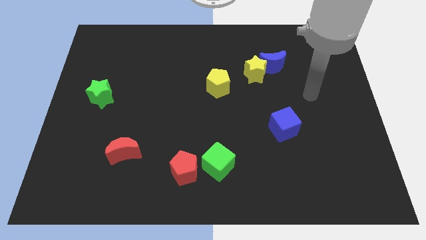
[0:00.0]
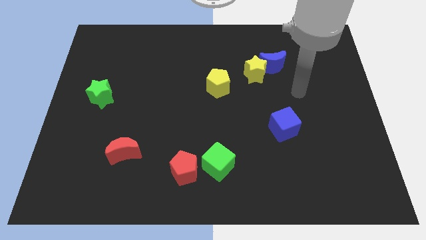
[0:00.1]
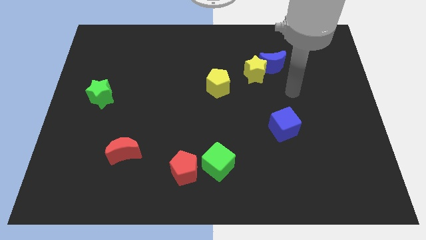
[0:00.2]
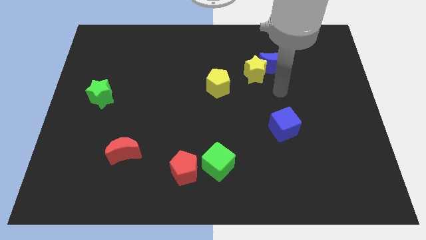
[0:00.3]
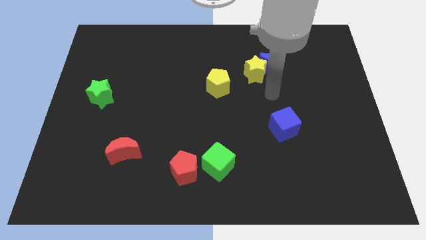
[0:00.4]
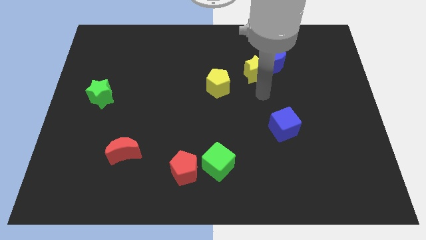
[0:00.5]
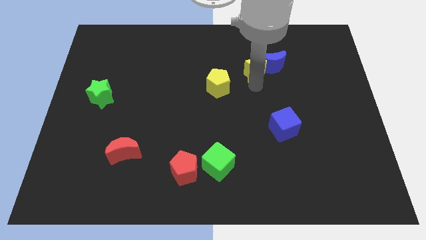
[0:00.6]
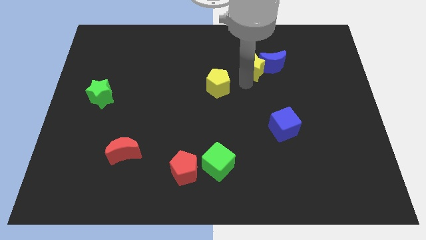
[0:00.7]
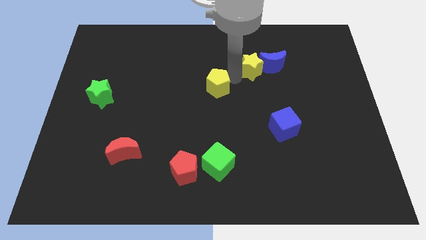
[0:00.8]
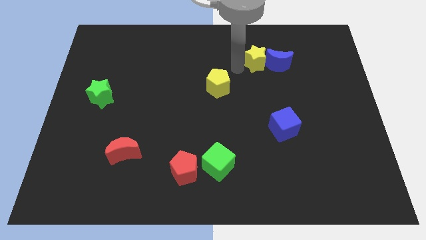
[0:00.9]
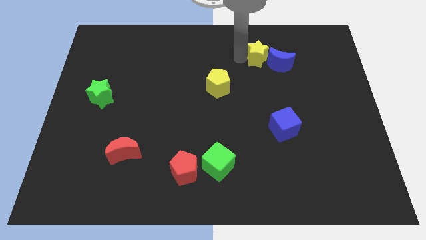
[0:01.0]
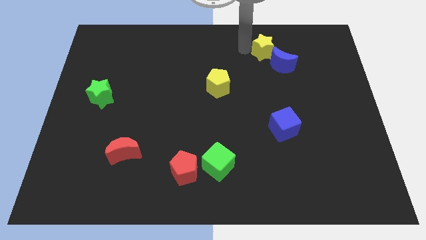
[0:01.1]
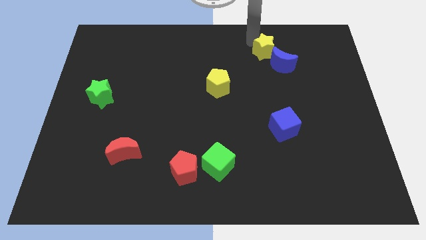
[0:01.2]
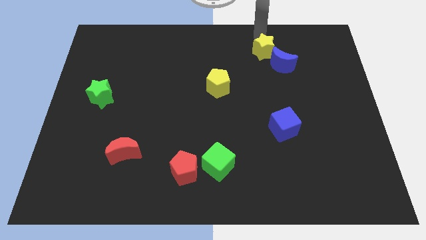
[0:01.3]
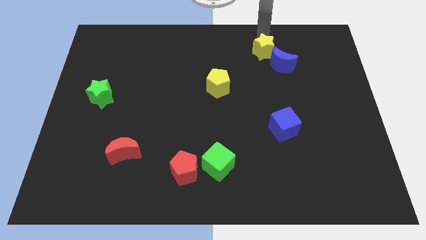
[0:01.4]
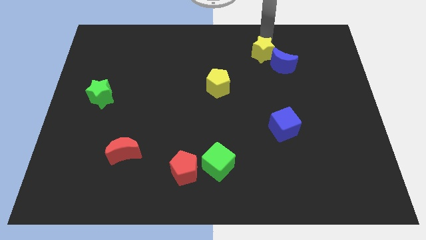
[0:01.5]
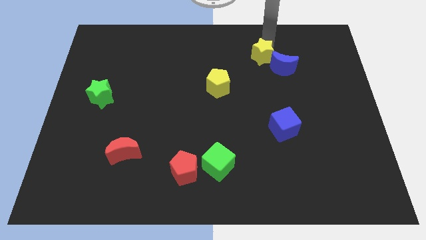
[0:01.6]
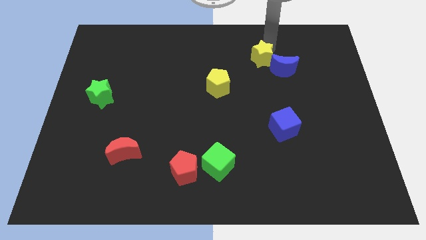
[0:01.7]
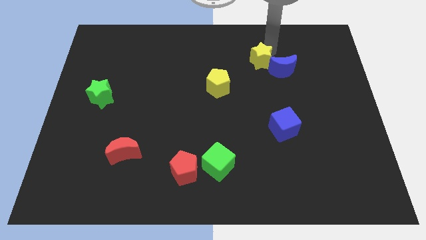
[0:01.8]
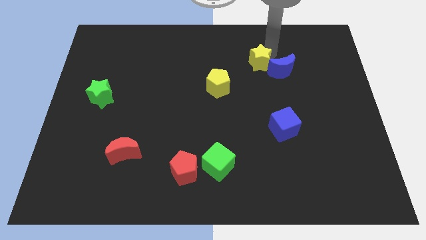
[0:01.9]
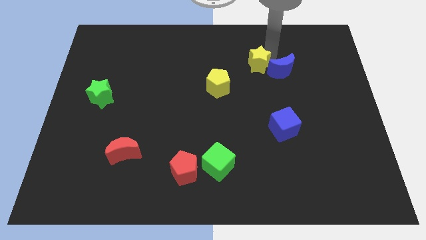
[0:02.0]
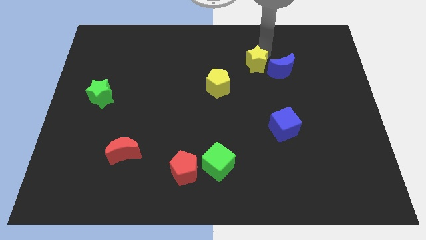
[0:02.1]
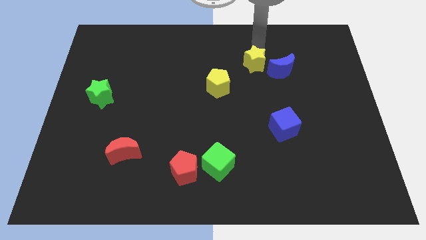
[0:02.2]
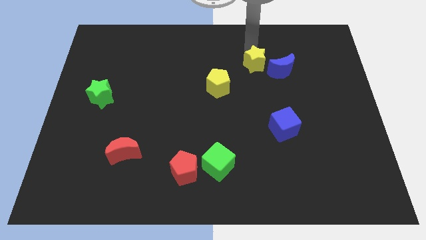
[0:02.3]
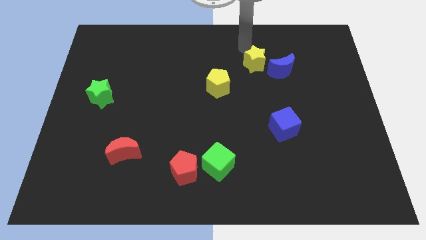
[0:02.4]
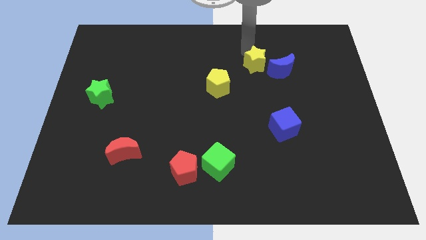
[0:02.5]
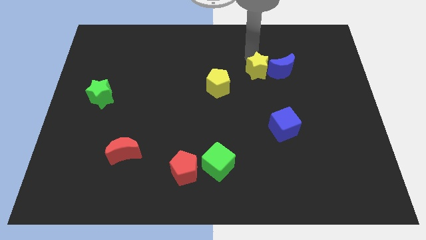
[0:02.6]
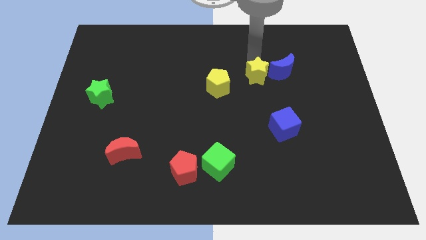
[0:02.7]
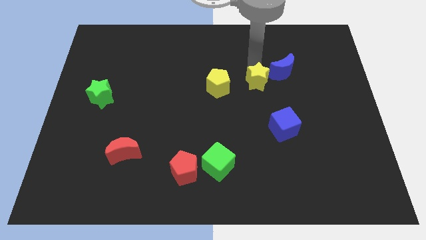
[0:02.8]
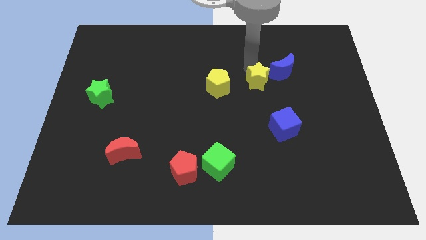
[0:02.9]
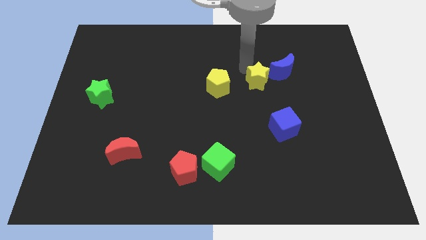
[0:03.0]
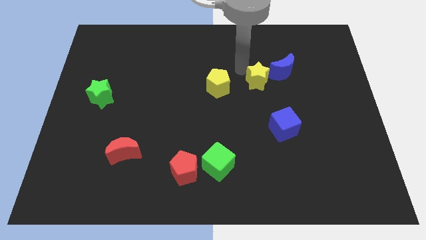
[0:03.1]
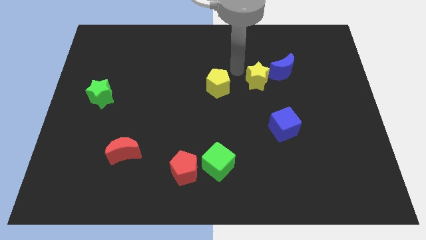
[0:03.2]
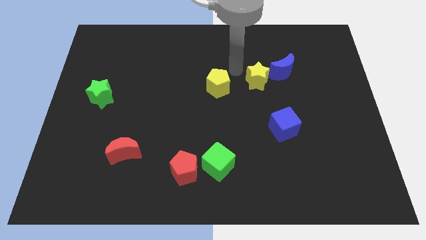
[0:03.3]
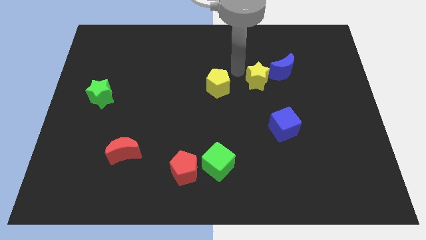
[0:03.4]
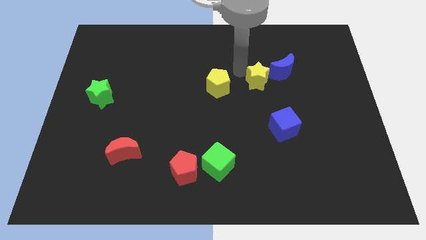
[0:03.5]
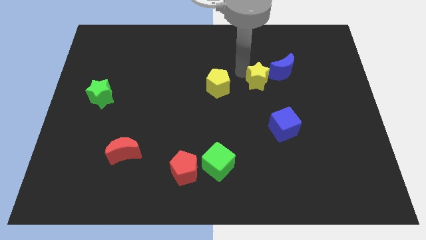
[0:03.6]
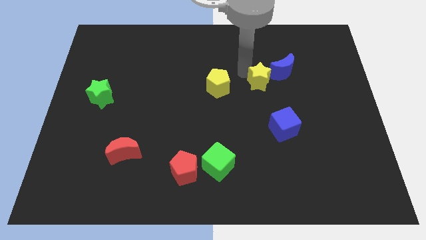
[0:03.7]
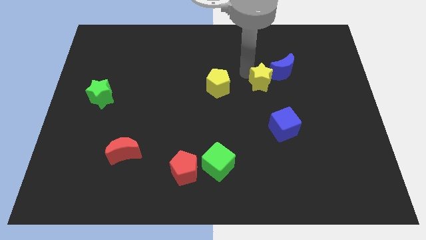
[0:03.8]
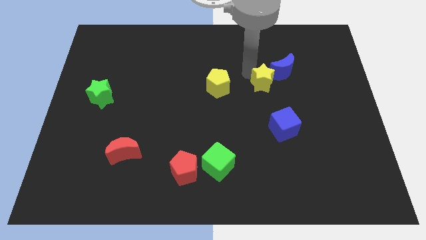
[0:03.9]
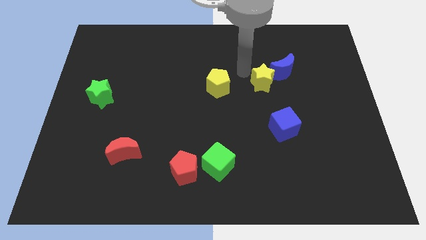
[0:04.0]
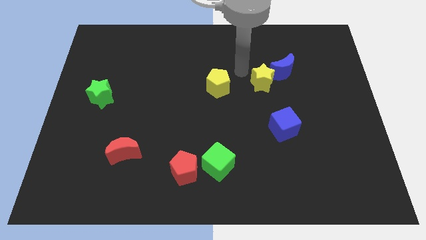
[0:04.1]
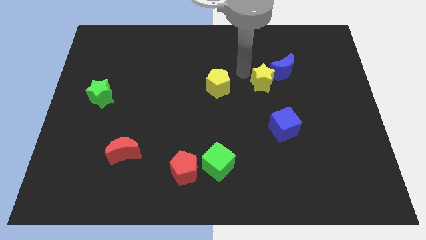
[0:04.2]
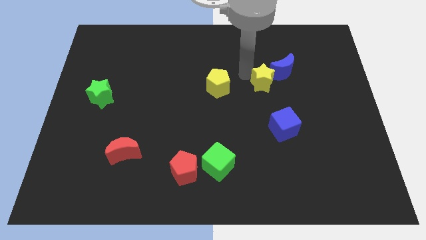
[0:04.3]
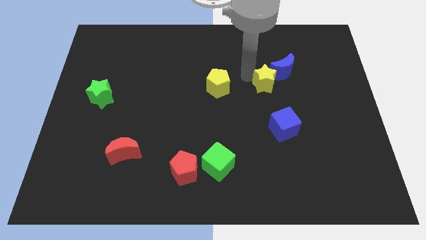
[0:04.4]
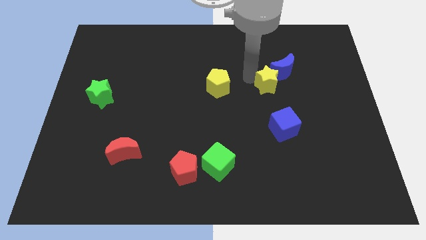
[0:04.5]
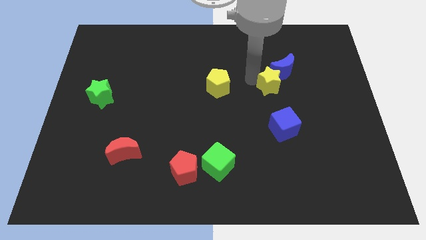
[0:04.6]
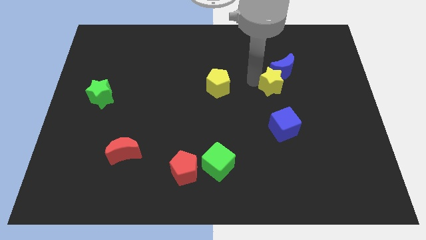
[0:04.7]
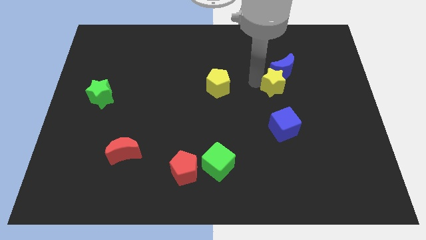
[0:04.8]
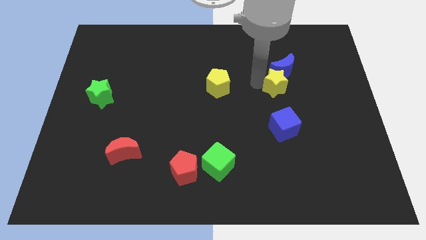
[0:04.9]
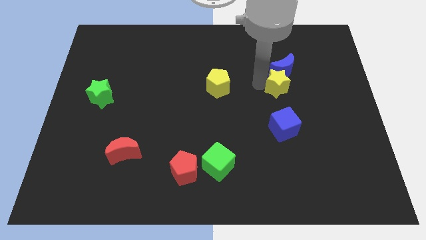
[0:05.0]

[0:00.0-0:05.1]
move the yellow star somewhat diagonally downwards and to the right

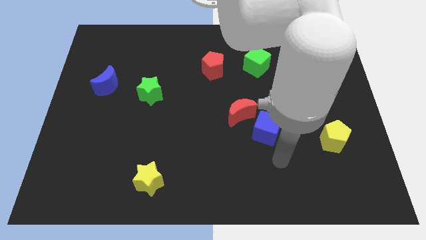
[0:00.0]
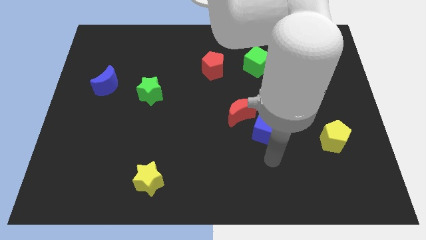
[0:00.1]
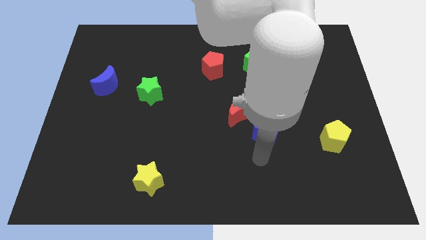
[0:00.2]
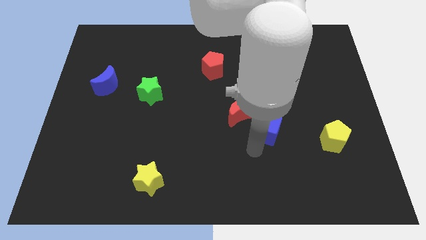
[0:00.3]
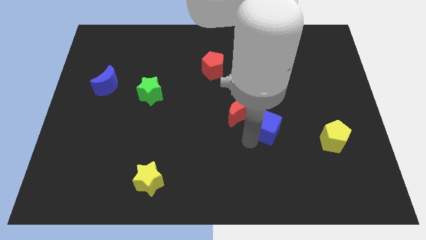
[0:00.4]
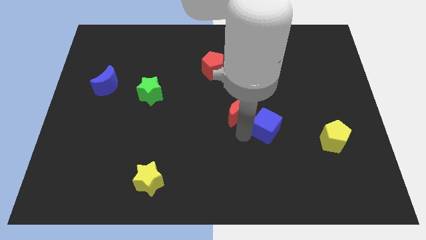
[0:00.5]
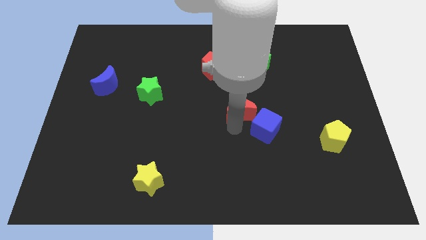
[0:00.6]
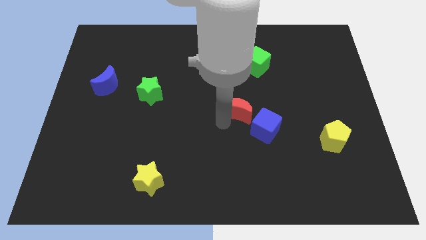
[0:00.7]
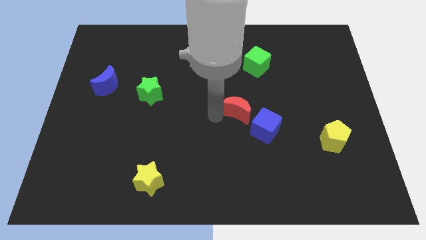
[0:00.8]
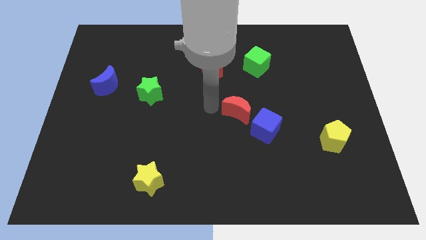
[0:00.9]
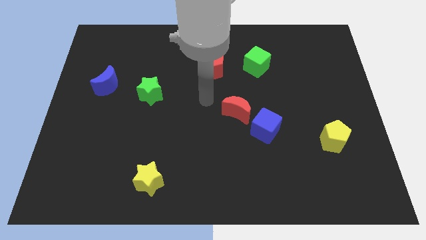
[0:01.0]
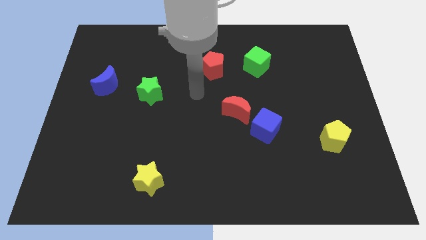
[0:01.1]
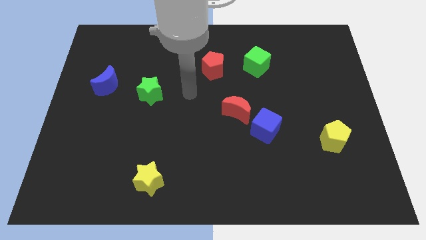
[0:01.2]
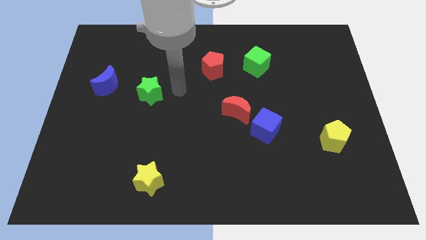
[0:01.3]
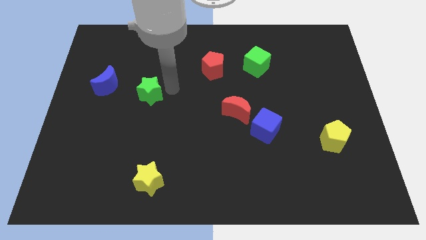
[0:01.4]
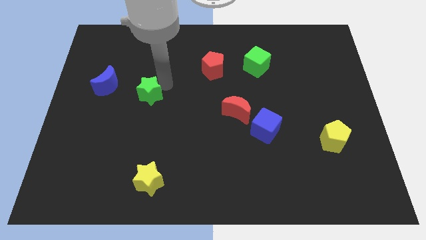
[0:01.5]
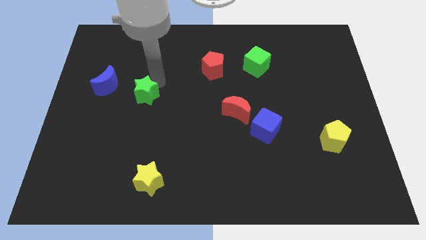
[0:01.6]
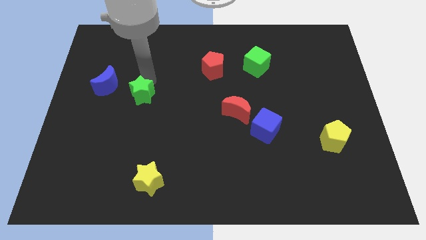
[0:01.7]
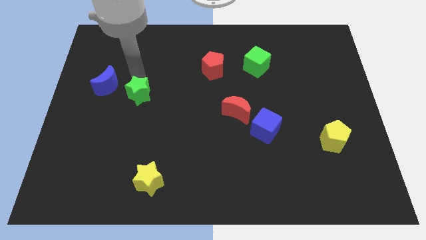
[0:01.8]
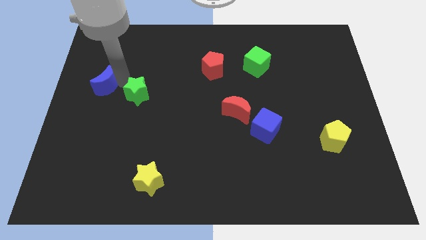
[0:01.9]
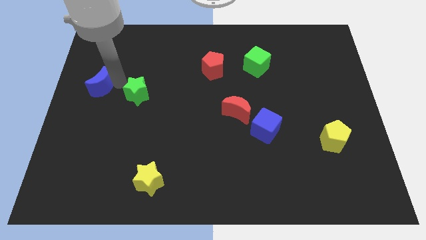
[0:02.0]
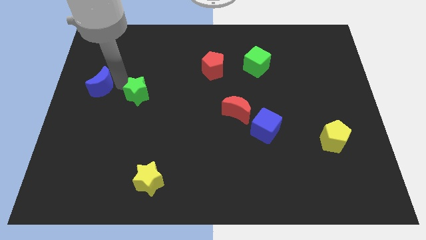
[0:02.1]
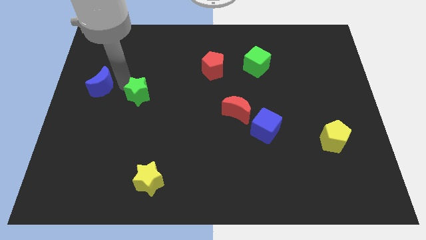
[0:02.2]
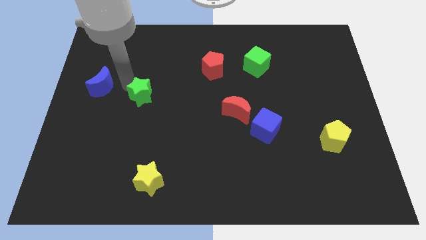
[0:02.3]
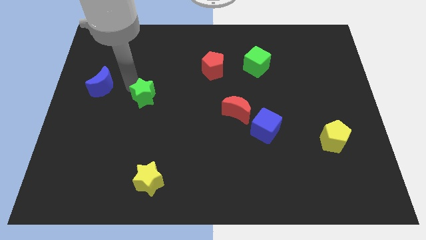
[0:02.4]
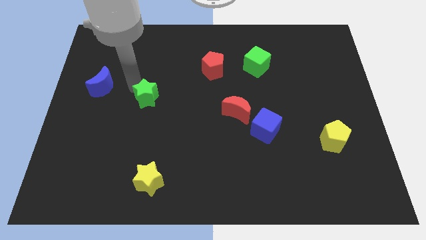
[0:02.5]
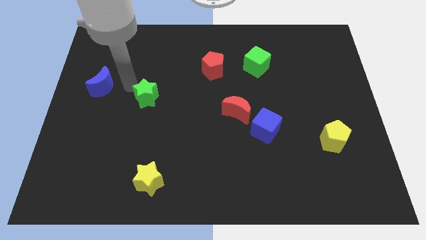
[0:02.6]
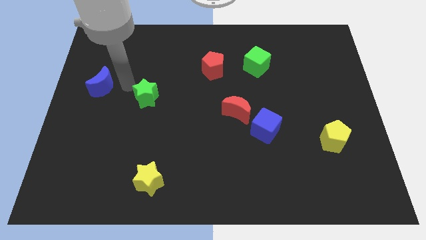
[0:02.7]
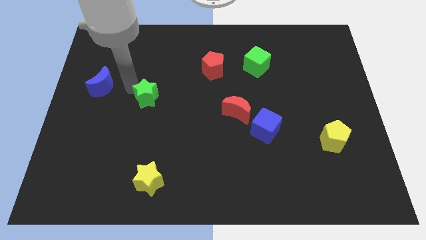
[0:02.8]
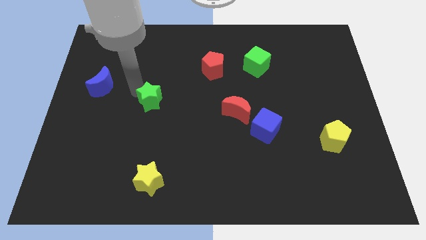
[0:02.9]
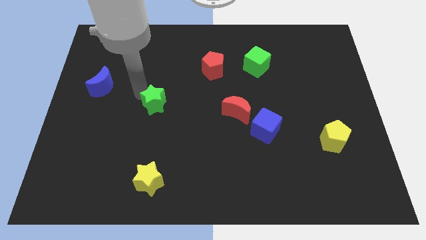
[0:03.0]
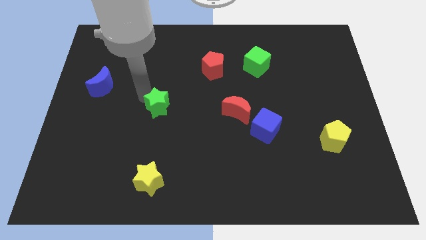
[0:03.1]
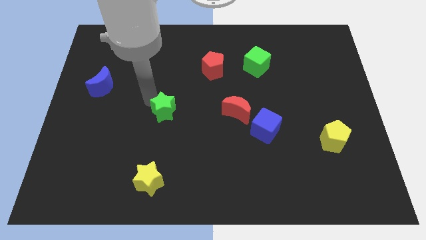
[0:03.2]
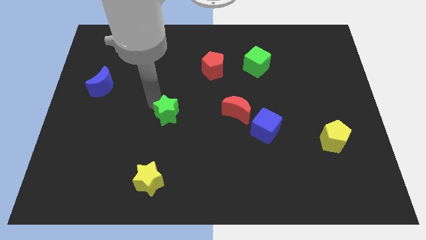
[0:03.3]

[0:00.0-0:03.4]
push the green star a little bit downwards and to the right
